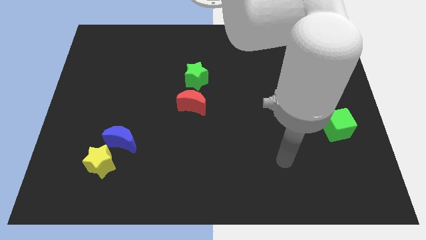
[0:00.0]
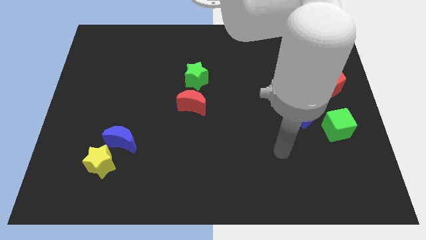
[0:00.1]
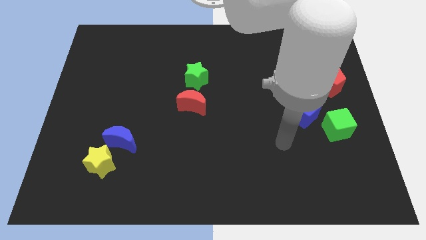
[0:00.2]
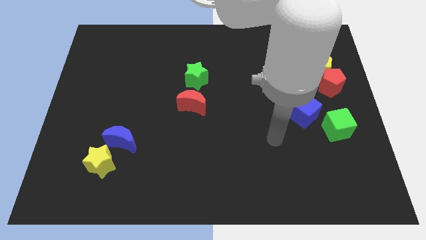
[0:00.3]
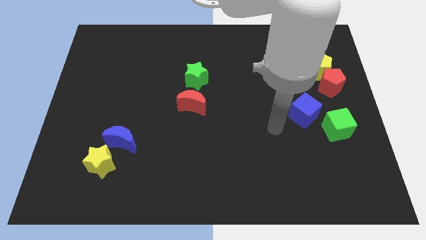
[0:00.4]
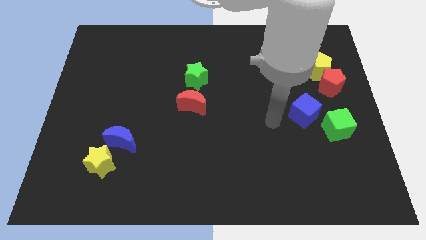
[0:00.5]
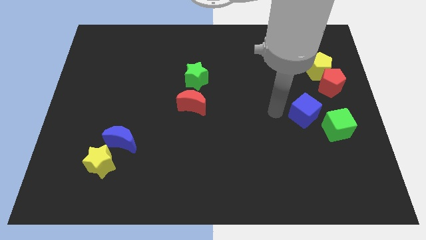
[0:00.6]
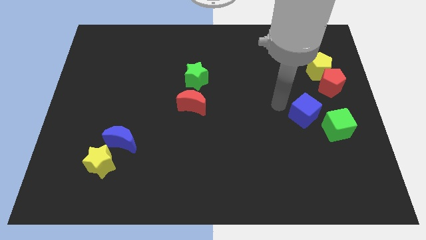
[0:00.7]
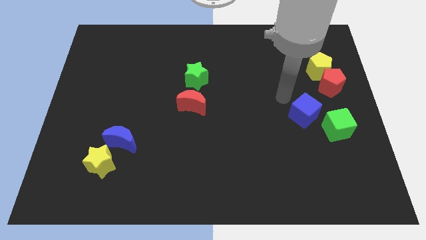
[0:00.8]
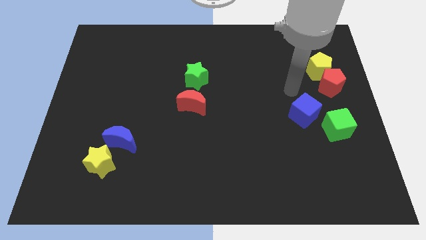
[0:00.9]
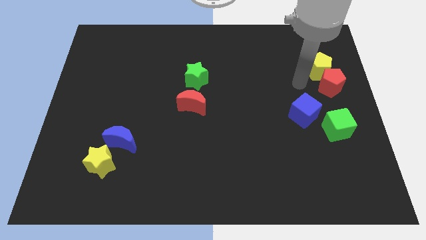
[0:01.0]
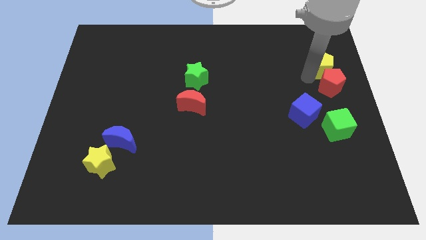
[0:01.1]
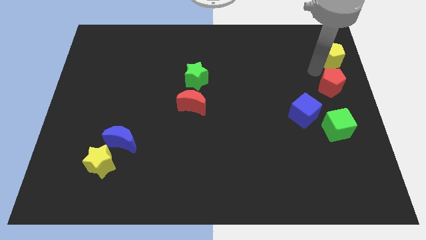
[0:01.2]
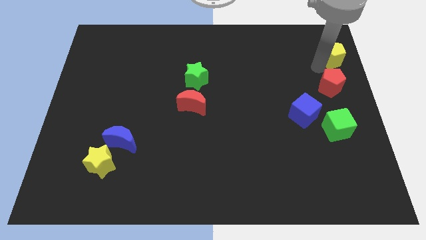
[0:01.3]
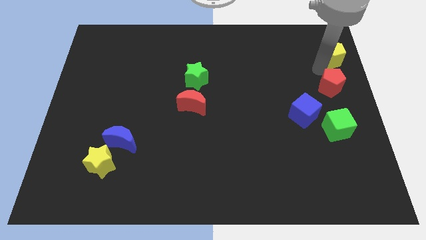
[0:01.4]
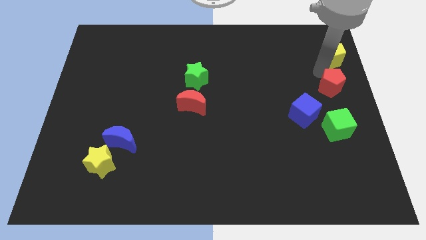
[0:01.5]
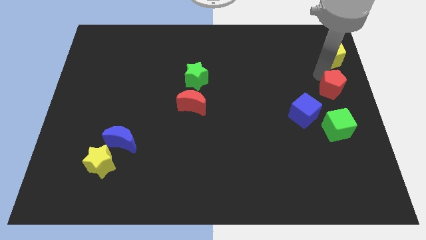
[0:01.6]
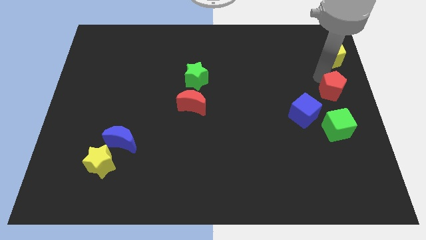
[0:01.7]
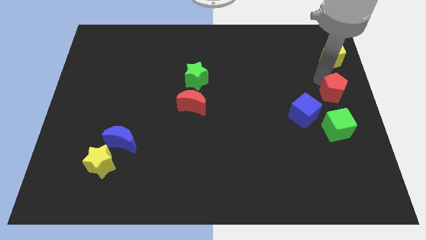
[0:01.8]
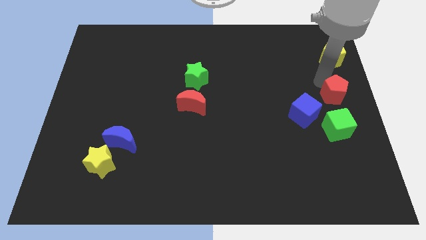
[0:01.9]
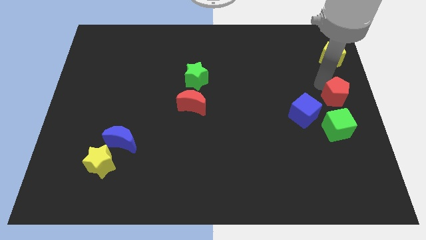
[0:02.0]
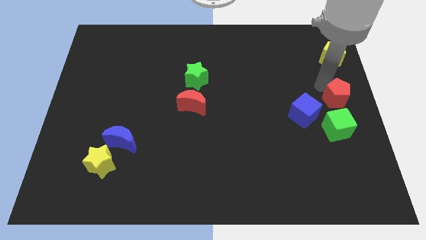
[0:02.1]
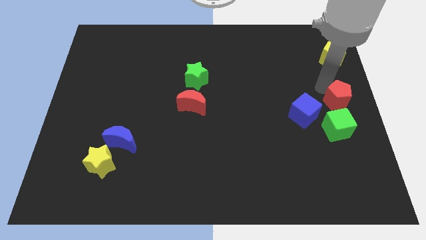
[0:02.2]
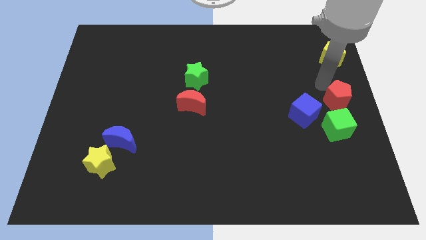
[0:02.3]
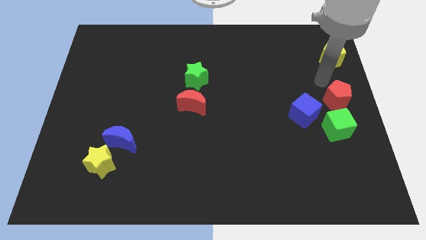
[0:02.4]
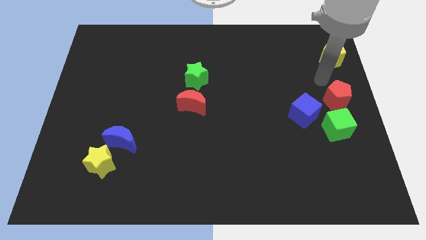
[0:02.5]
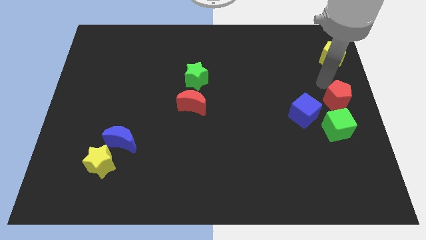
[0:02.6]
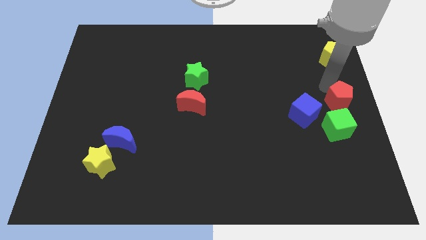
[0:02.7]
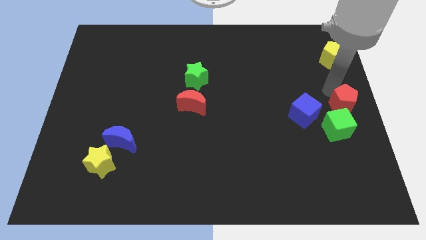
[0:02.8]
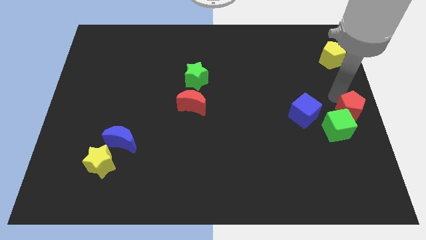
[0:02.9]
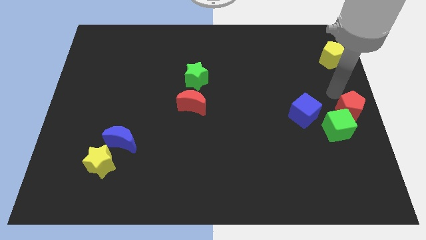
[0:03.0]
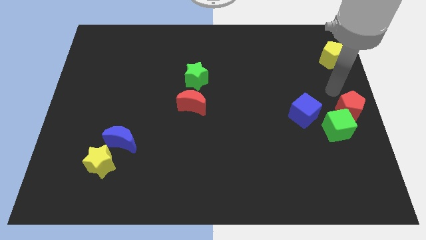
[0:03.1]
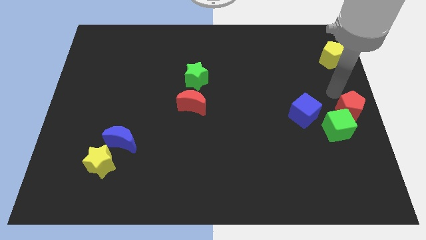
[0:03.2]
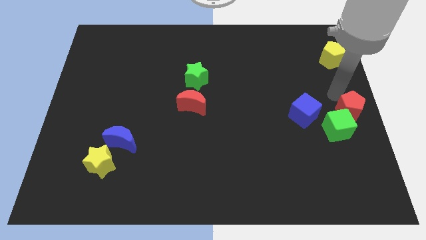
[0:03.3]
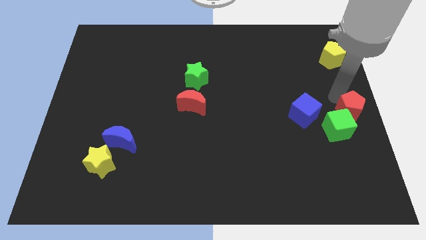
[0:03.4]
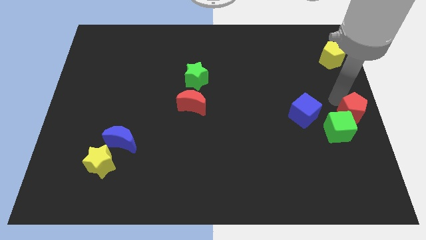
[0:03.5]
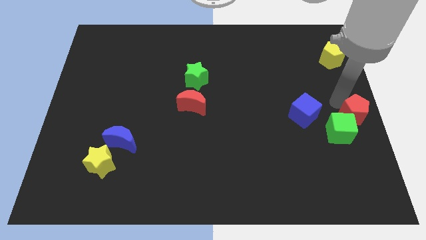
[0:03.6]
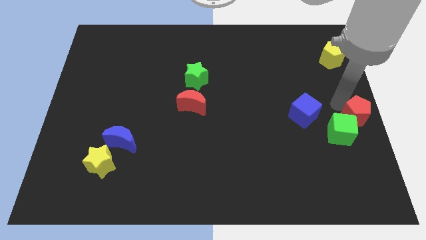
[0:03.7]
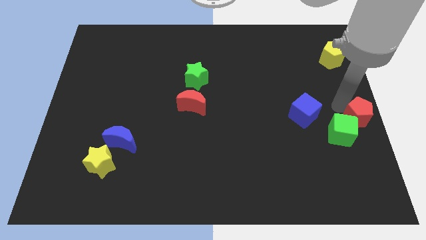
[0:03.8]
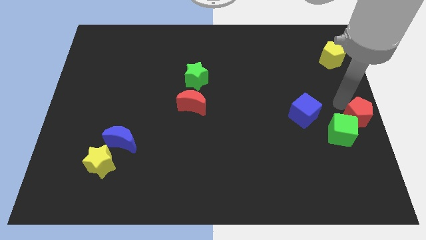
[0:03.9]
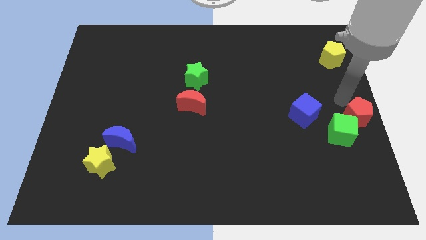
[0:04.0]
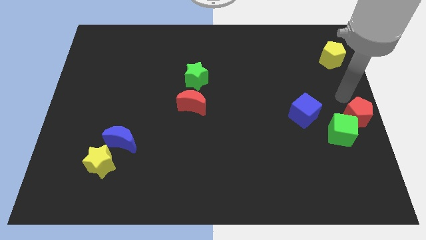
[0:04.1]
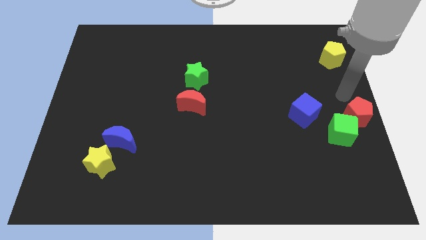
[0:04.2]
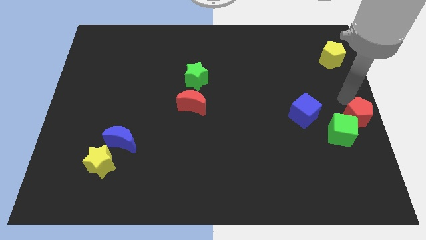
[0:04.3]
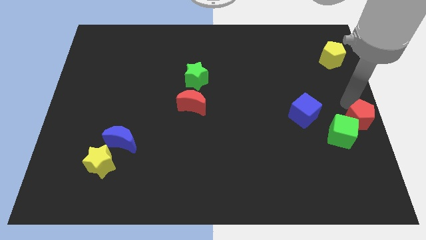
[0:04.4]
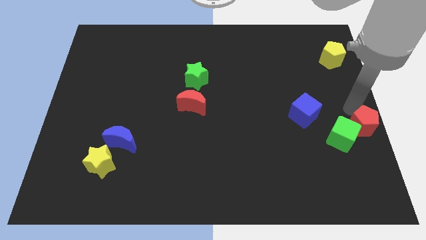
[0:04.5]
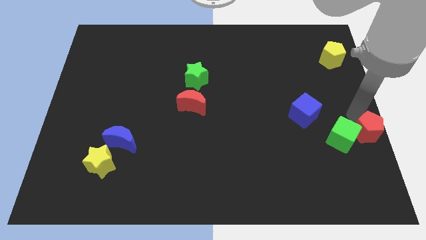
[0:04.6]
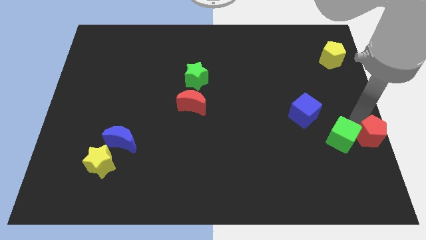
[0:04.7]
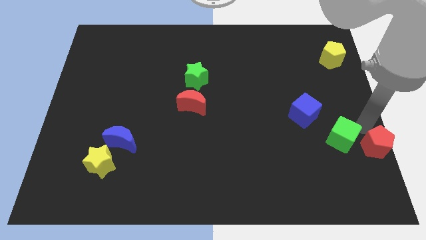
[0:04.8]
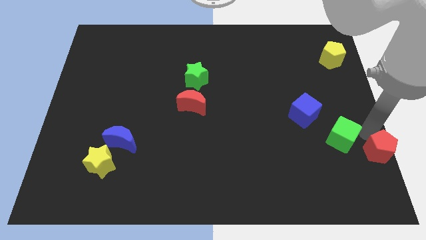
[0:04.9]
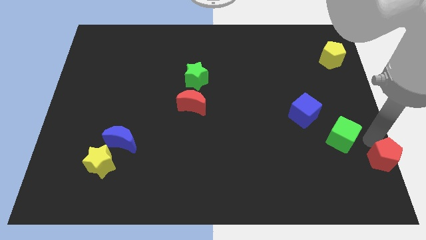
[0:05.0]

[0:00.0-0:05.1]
slide the red pentagon to the bottom right

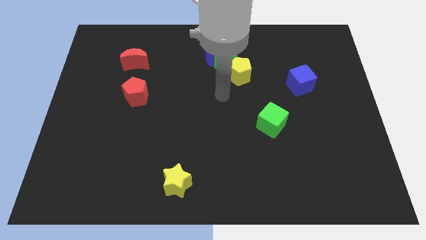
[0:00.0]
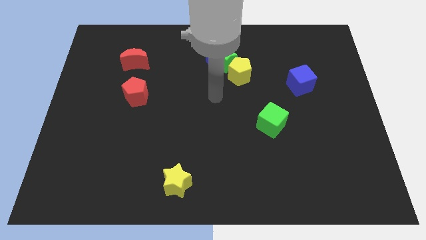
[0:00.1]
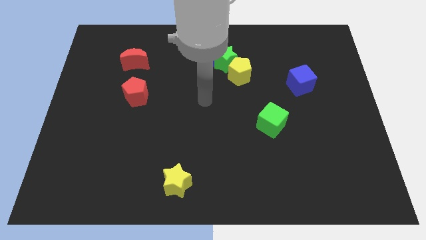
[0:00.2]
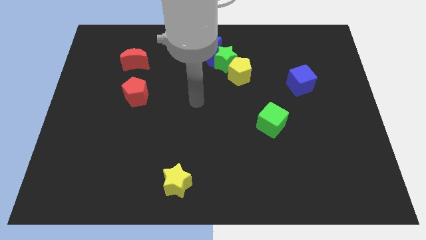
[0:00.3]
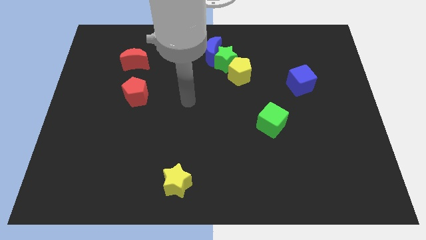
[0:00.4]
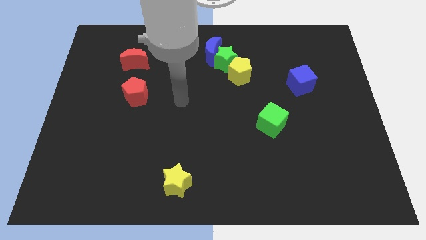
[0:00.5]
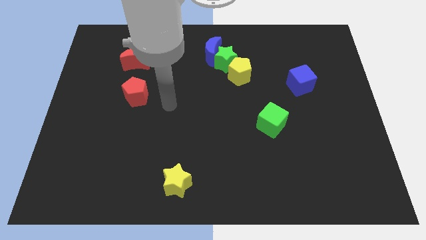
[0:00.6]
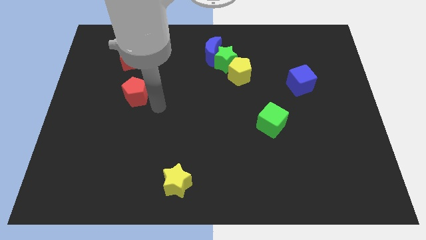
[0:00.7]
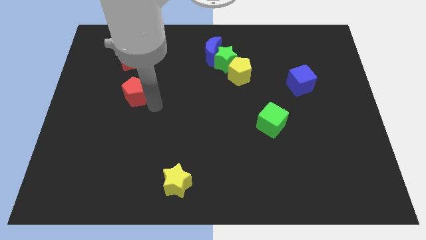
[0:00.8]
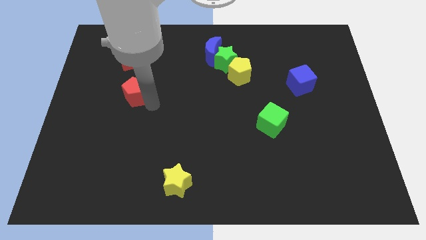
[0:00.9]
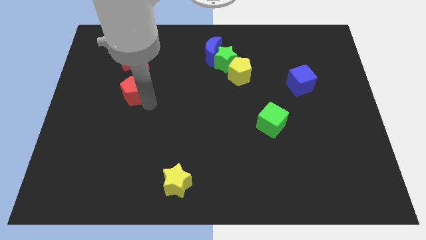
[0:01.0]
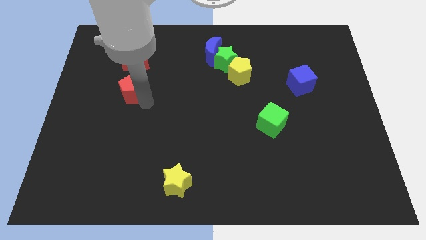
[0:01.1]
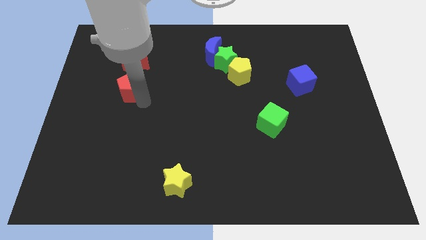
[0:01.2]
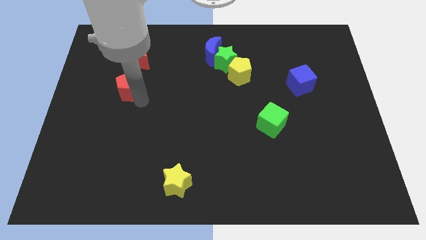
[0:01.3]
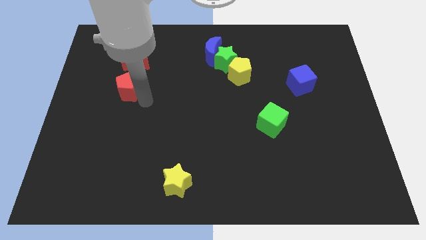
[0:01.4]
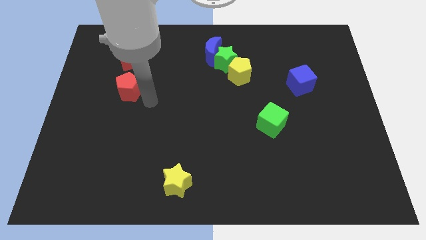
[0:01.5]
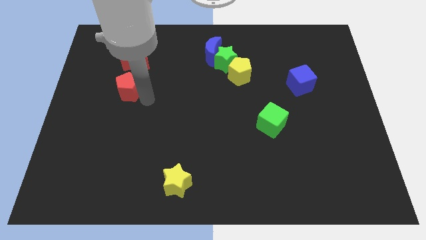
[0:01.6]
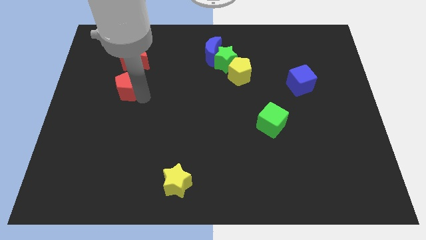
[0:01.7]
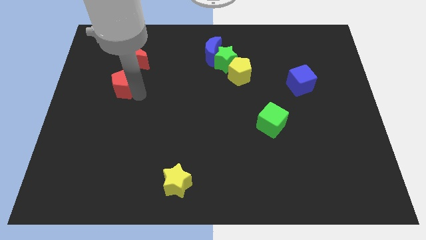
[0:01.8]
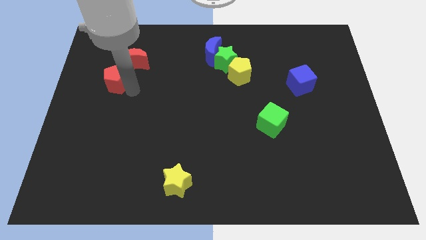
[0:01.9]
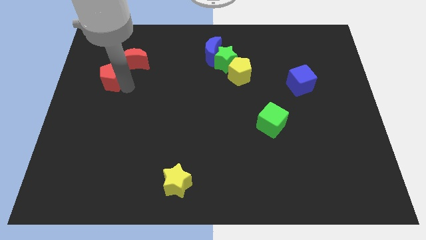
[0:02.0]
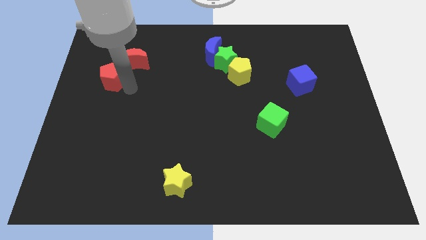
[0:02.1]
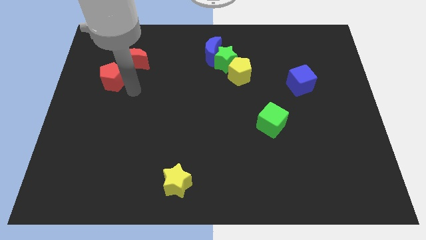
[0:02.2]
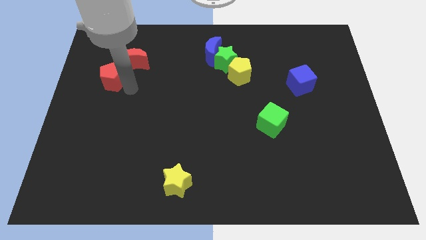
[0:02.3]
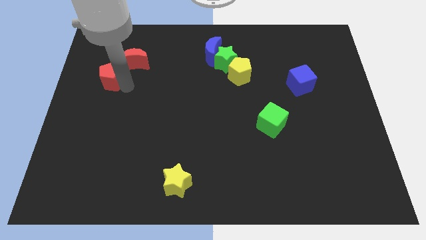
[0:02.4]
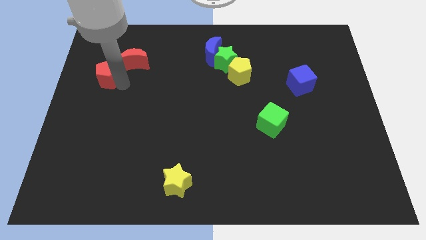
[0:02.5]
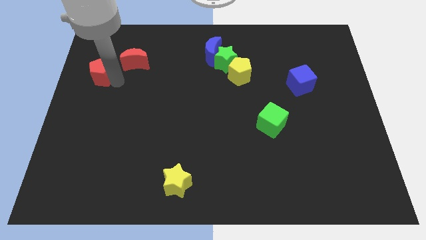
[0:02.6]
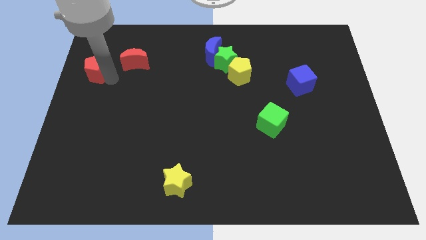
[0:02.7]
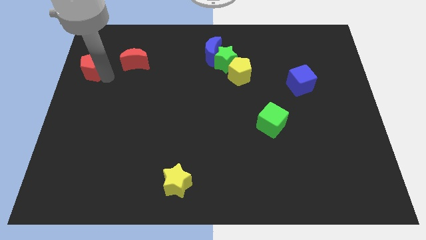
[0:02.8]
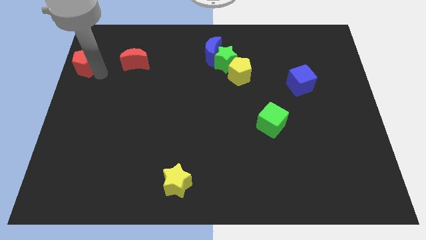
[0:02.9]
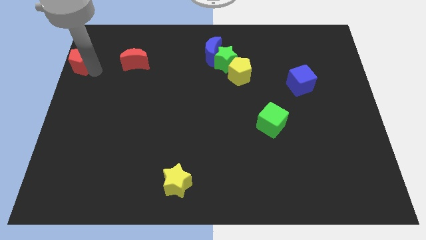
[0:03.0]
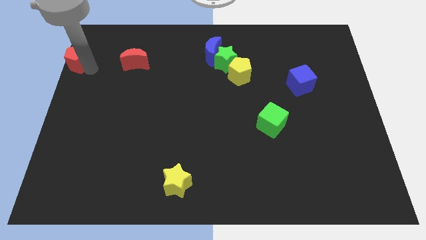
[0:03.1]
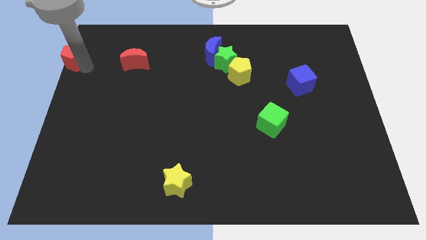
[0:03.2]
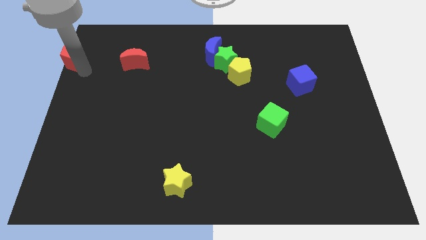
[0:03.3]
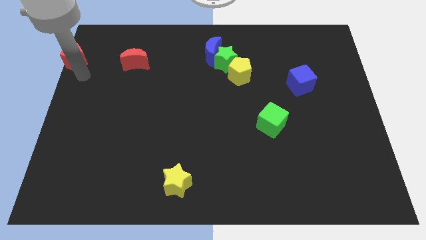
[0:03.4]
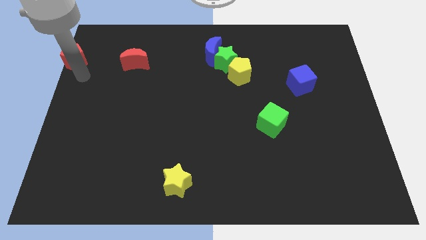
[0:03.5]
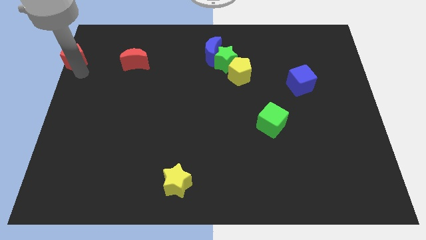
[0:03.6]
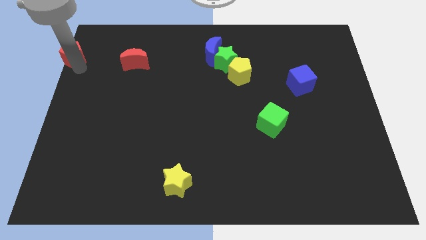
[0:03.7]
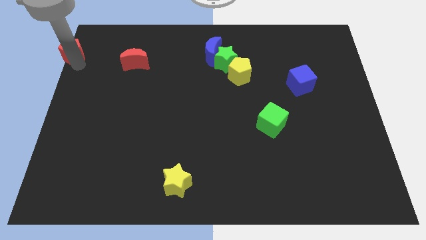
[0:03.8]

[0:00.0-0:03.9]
slide the red pentagon to the top left corner
